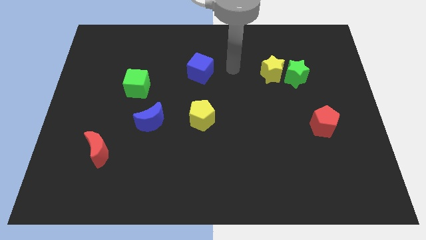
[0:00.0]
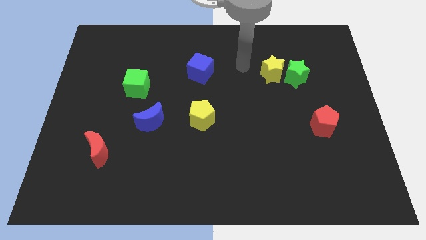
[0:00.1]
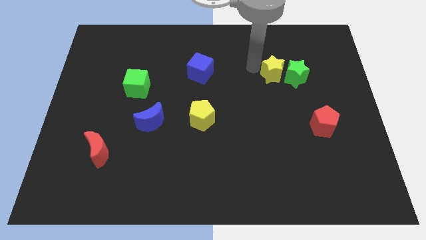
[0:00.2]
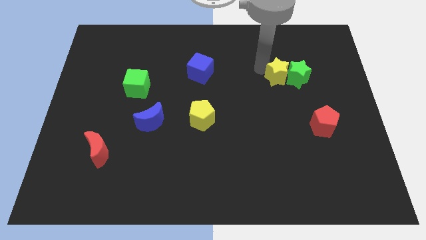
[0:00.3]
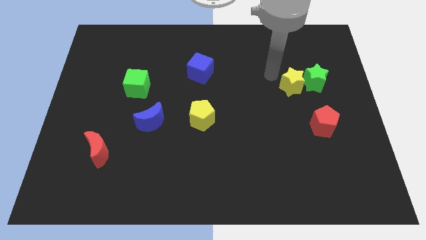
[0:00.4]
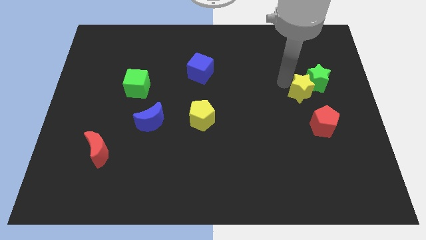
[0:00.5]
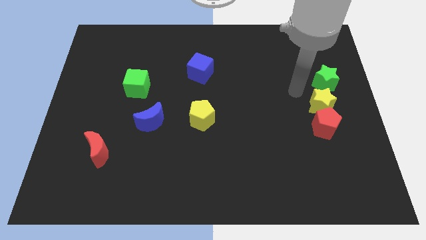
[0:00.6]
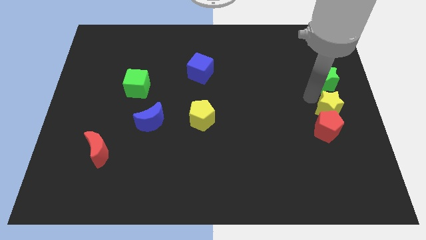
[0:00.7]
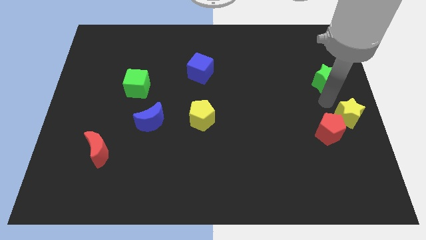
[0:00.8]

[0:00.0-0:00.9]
pull the green star apart from the yellow star

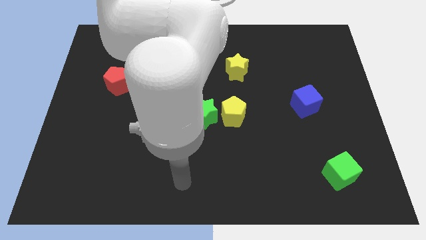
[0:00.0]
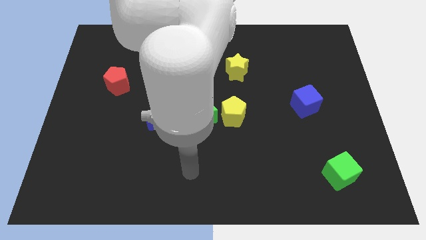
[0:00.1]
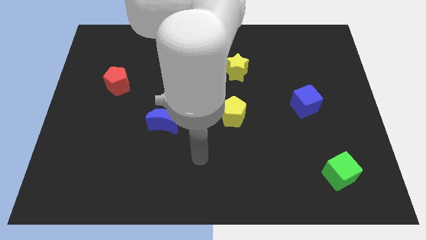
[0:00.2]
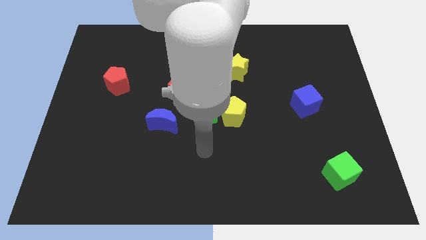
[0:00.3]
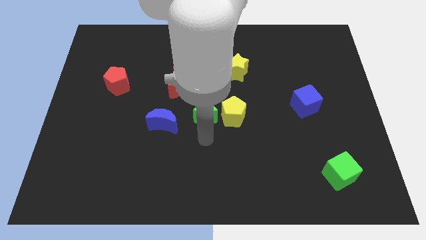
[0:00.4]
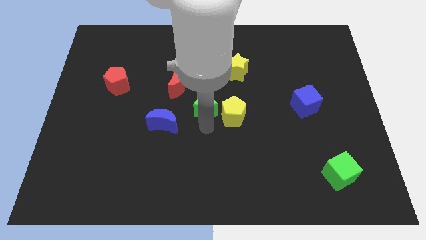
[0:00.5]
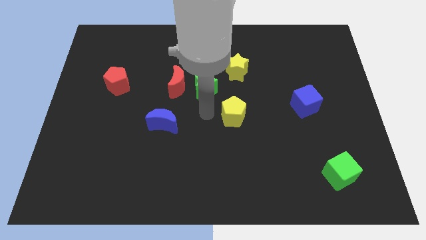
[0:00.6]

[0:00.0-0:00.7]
pull the yellow pentagon apart from the green star

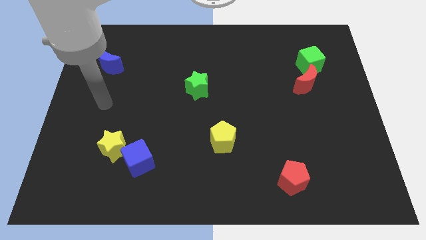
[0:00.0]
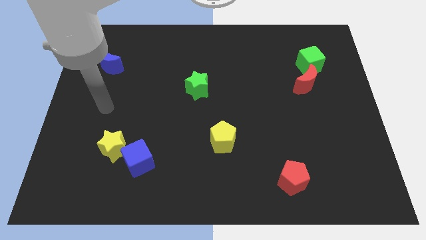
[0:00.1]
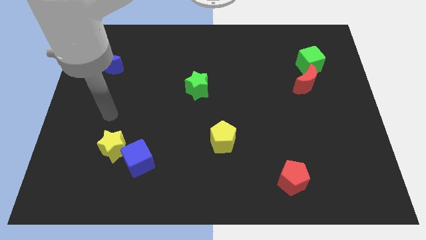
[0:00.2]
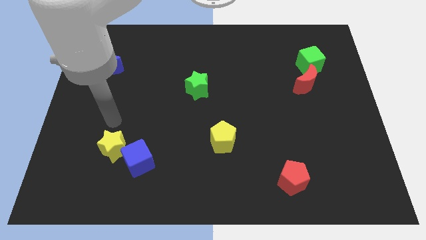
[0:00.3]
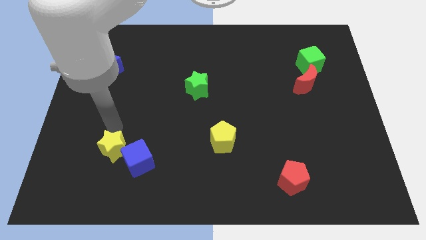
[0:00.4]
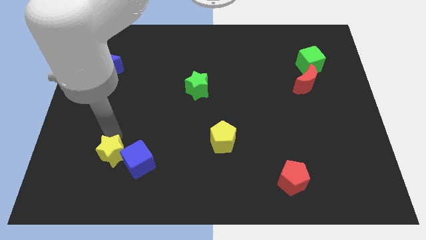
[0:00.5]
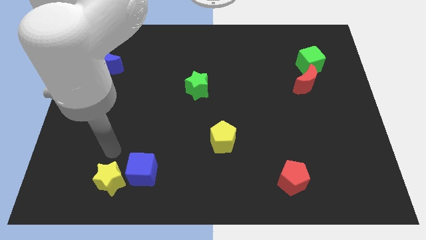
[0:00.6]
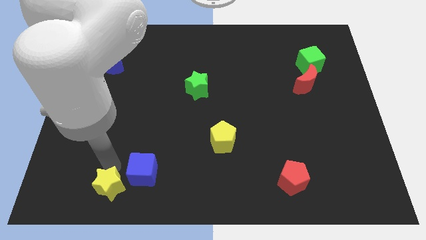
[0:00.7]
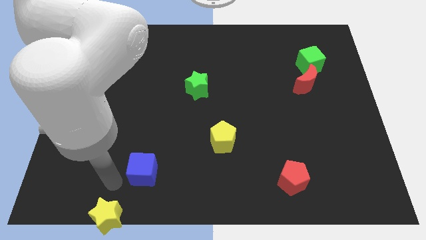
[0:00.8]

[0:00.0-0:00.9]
separate the blue cube from the yellow star

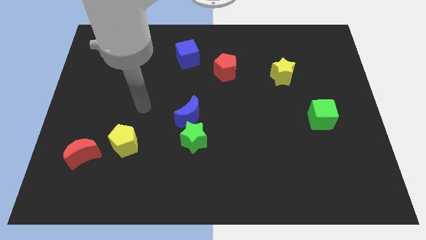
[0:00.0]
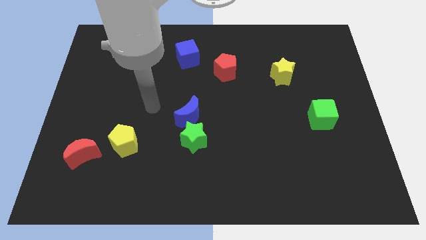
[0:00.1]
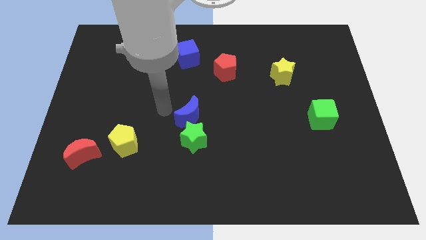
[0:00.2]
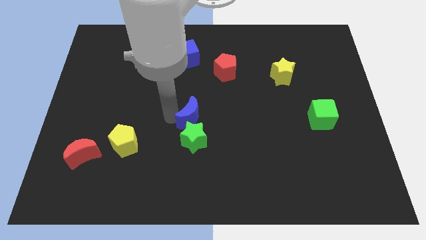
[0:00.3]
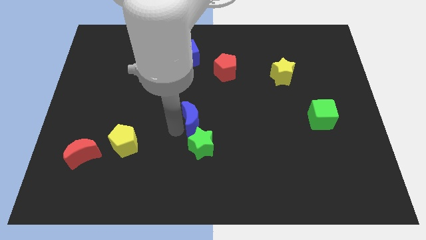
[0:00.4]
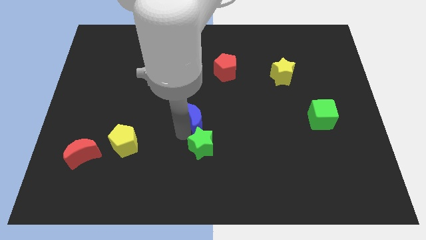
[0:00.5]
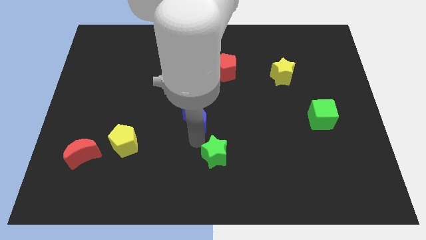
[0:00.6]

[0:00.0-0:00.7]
separate the blue moon from the green star

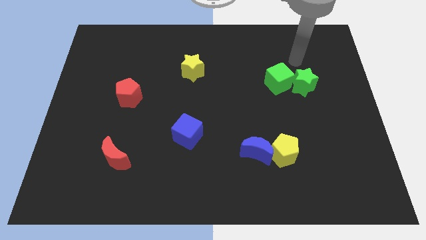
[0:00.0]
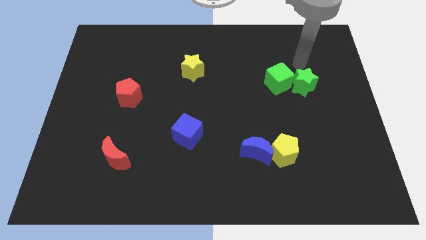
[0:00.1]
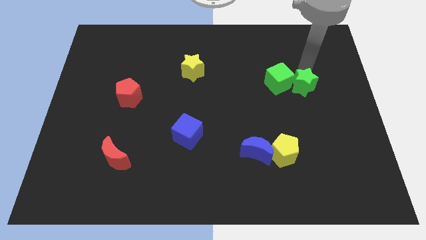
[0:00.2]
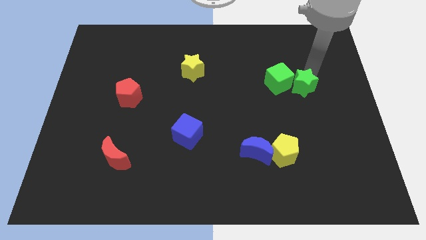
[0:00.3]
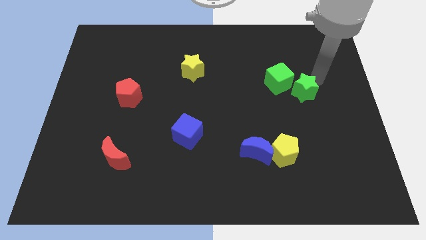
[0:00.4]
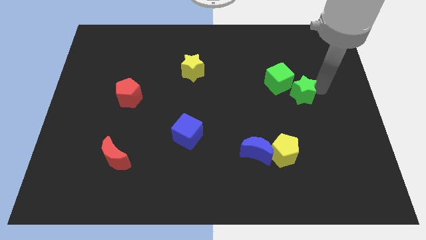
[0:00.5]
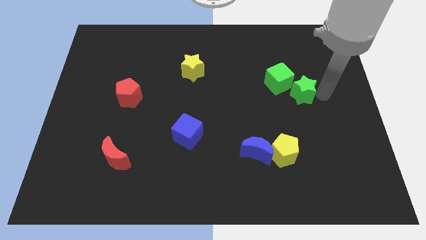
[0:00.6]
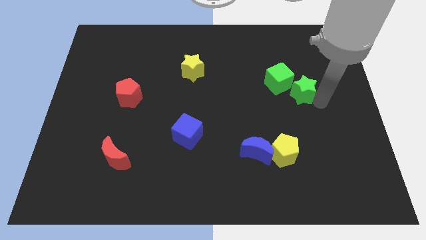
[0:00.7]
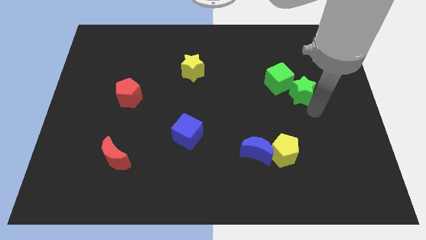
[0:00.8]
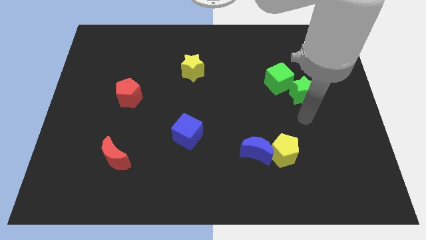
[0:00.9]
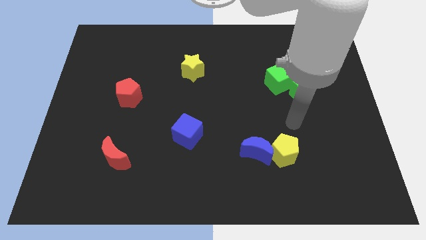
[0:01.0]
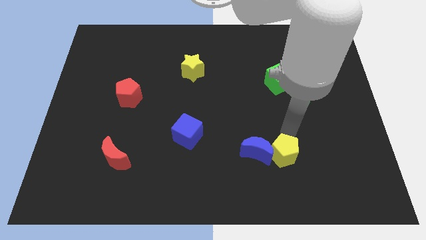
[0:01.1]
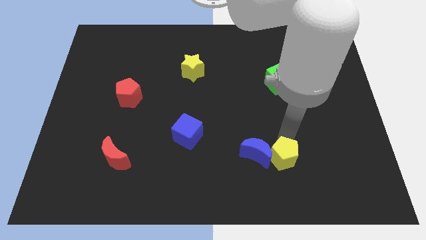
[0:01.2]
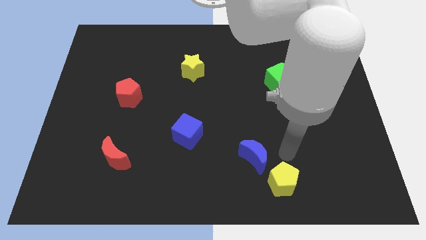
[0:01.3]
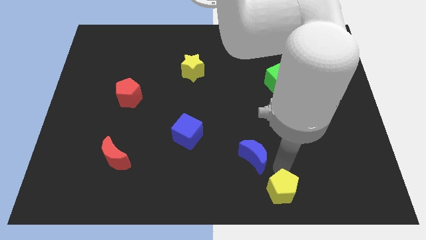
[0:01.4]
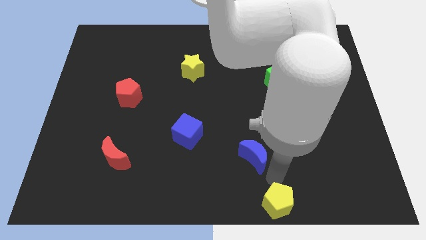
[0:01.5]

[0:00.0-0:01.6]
move the blue moon away from the yellow pentagon

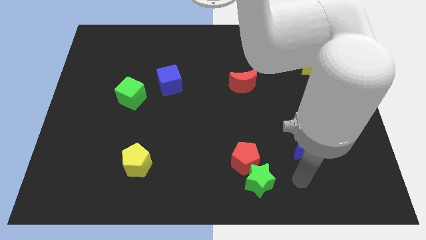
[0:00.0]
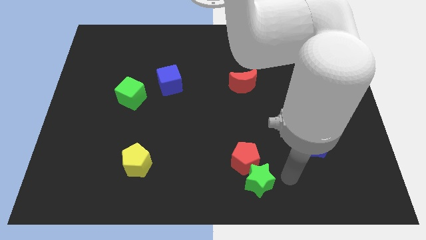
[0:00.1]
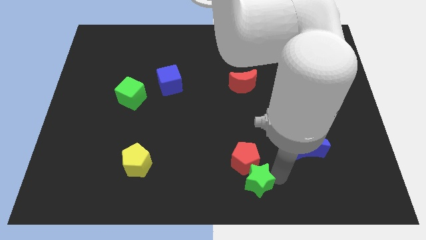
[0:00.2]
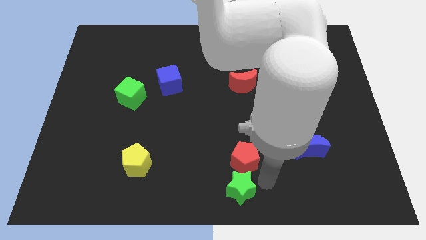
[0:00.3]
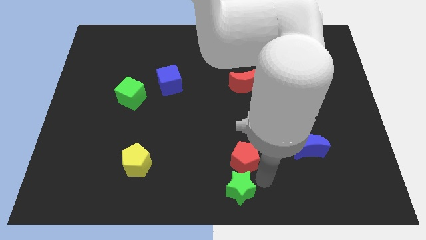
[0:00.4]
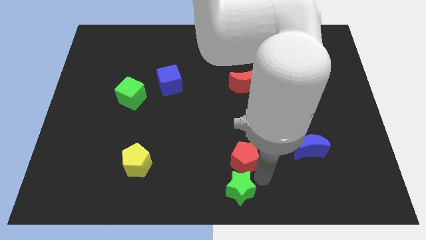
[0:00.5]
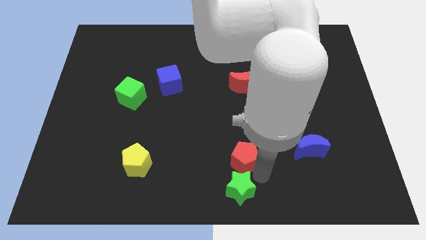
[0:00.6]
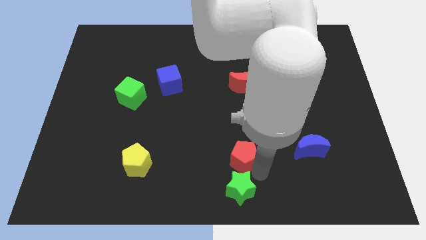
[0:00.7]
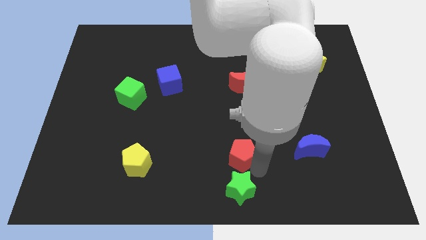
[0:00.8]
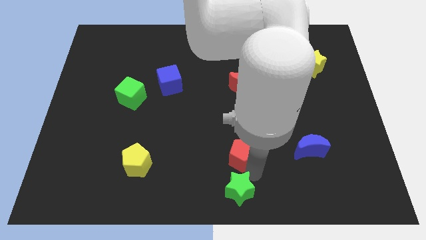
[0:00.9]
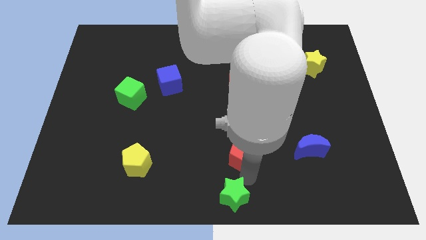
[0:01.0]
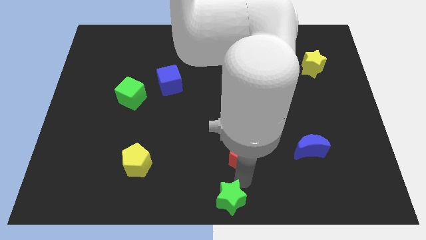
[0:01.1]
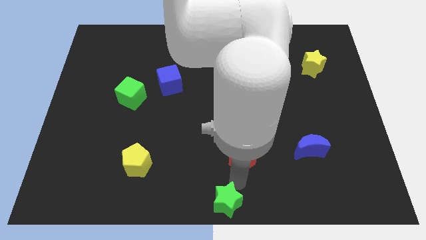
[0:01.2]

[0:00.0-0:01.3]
separate the red pentagon from the green star

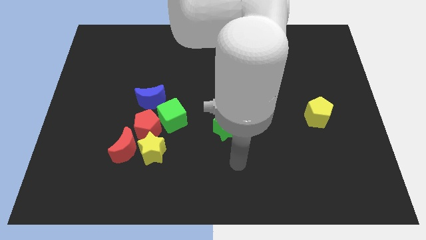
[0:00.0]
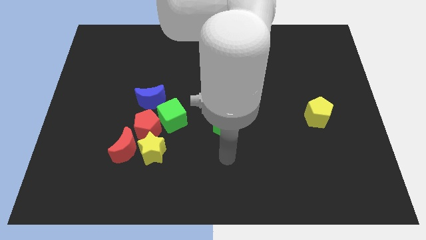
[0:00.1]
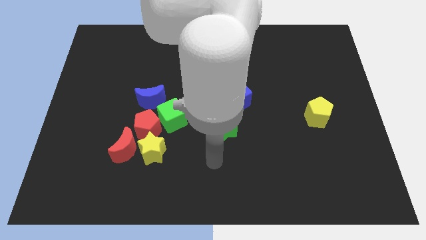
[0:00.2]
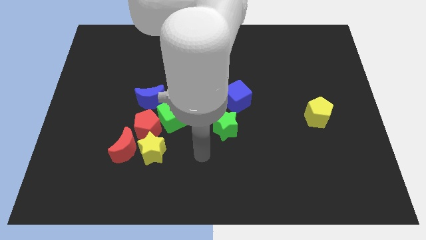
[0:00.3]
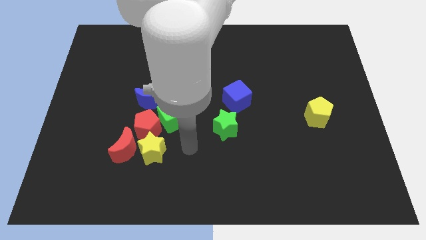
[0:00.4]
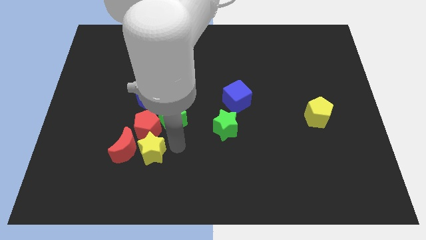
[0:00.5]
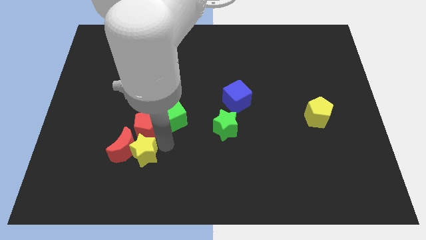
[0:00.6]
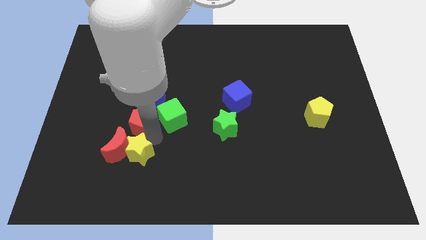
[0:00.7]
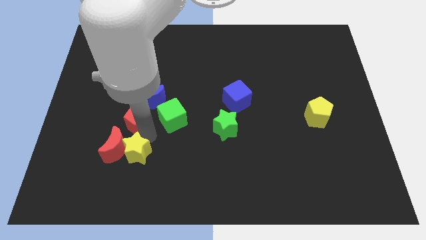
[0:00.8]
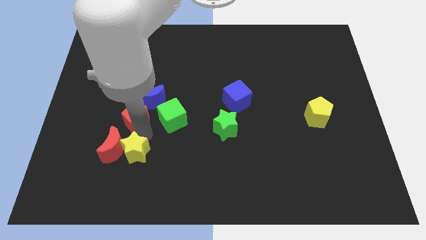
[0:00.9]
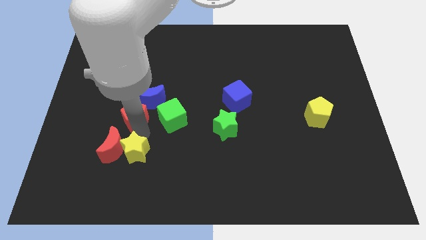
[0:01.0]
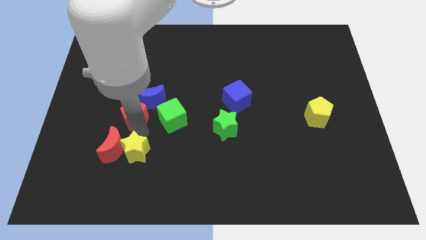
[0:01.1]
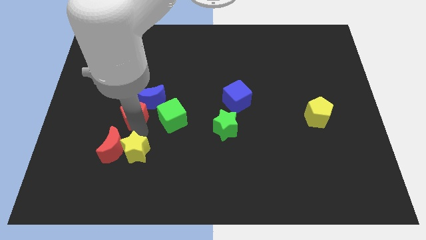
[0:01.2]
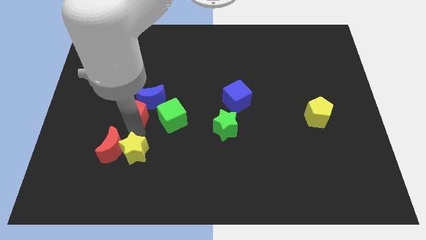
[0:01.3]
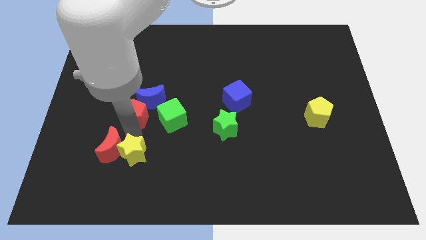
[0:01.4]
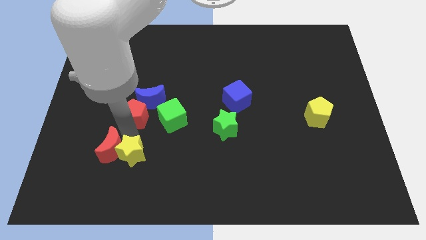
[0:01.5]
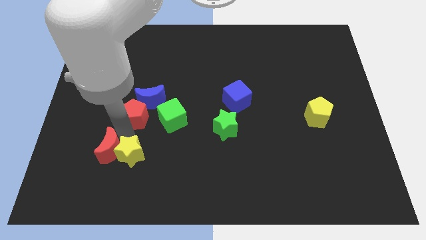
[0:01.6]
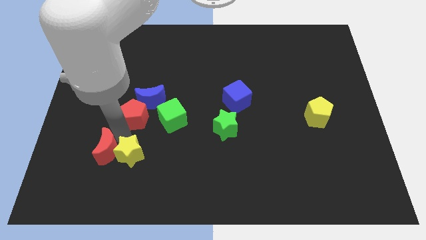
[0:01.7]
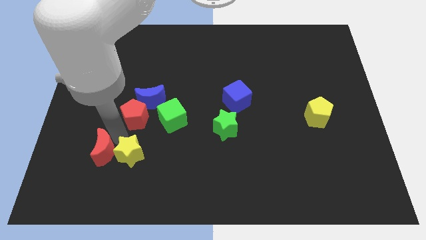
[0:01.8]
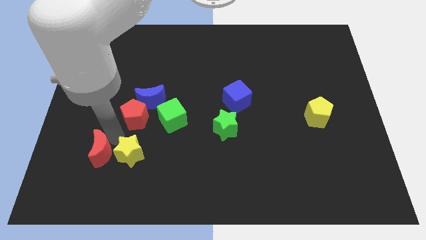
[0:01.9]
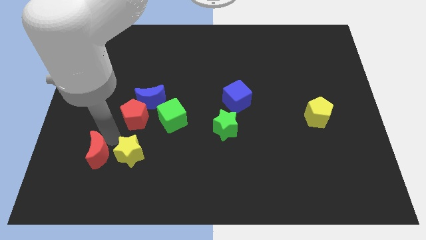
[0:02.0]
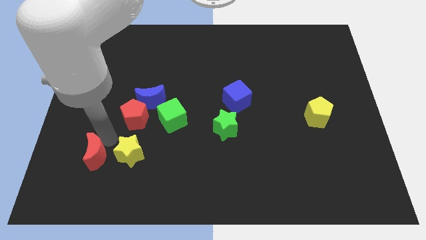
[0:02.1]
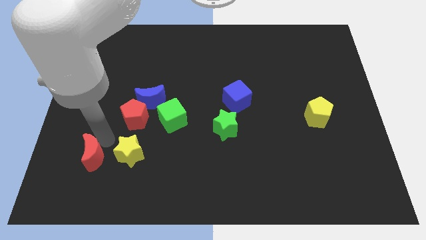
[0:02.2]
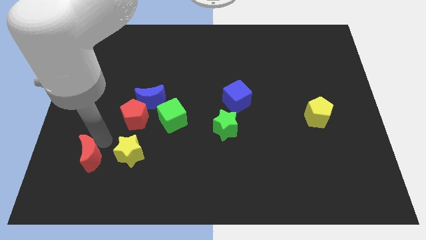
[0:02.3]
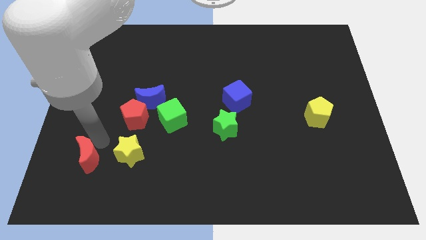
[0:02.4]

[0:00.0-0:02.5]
move the red moon away from the yellow star and red pentagon

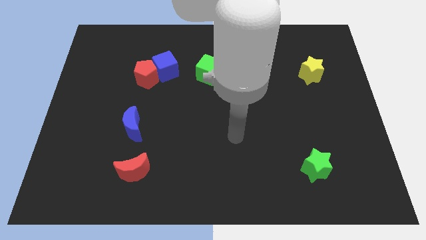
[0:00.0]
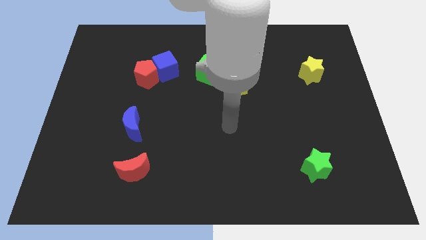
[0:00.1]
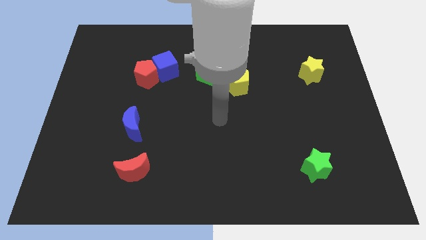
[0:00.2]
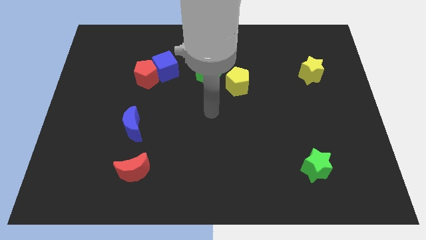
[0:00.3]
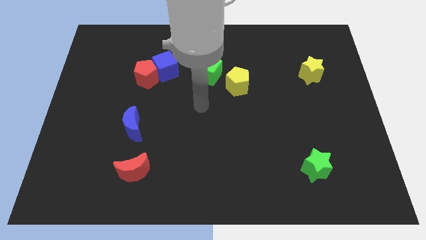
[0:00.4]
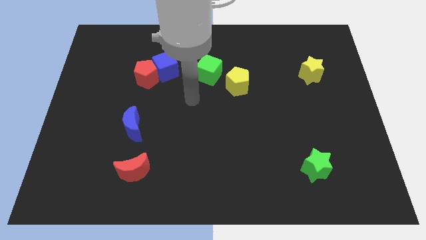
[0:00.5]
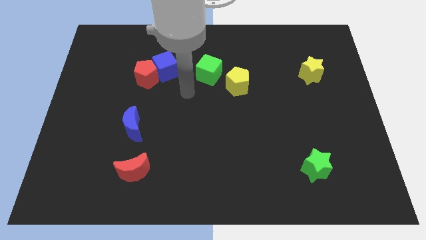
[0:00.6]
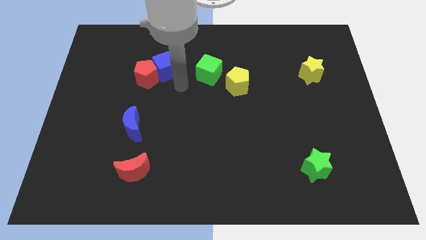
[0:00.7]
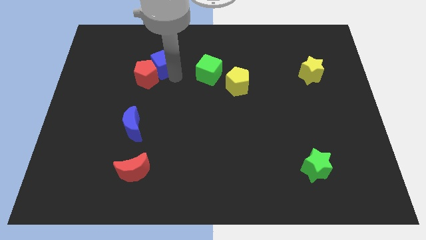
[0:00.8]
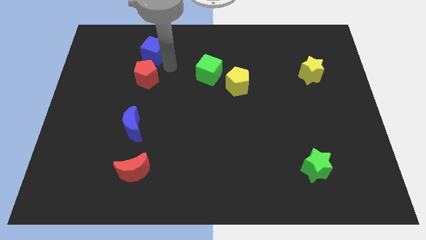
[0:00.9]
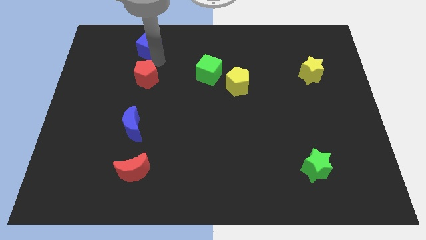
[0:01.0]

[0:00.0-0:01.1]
pull the red pentagon apart from the blue cube
